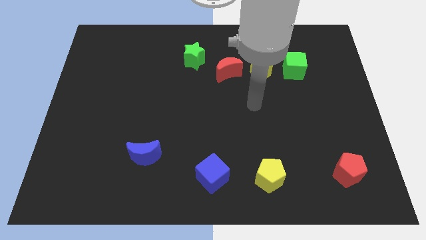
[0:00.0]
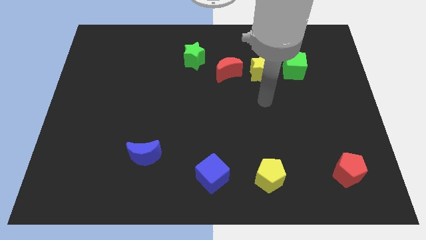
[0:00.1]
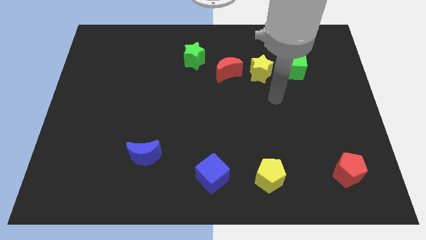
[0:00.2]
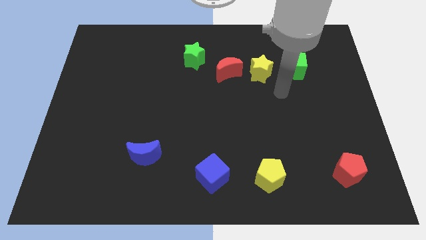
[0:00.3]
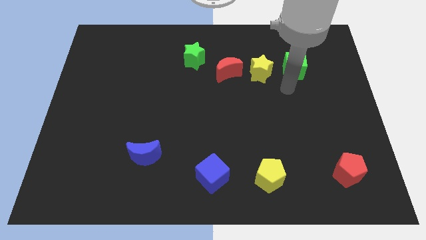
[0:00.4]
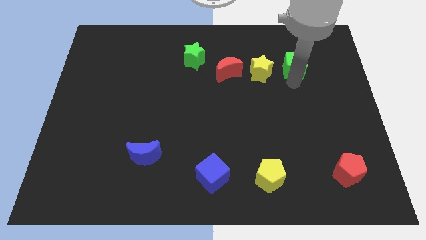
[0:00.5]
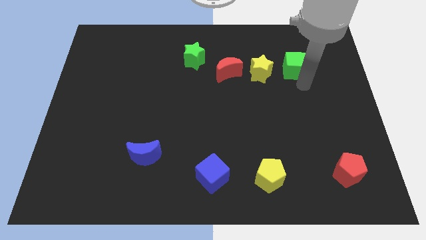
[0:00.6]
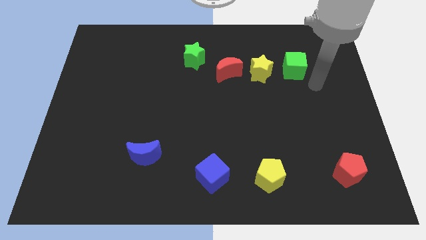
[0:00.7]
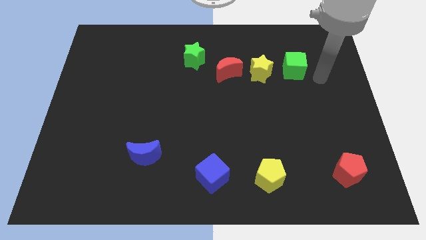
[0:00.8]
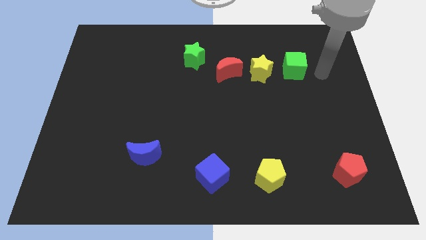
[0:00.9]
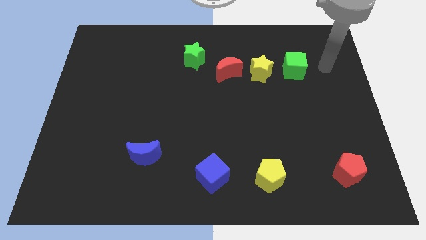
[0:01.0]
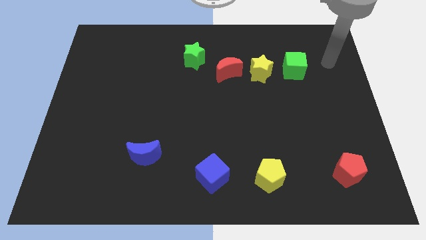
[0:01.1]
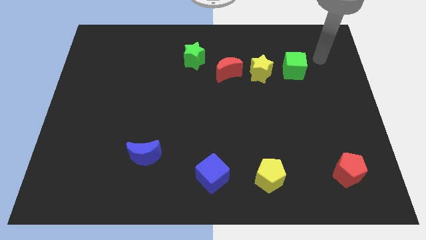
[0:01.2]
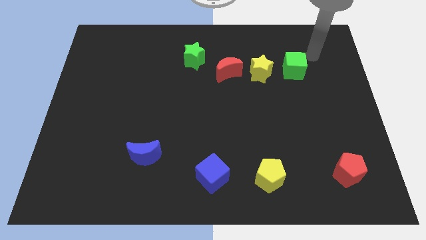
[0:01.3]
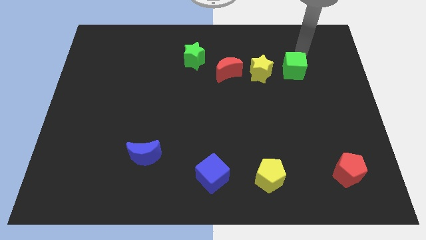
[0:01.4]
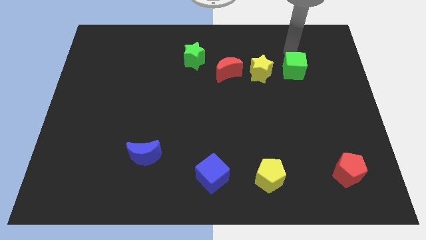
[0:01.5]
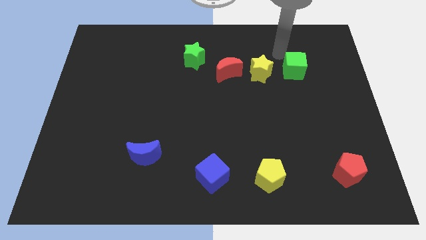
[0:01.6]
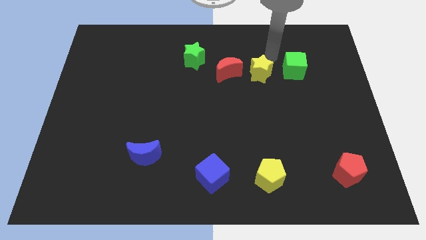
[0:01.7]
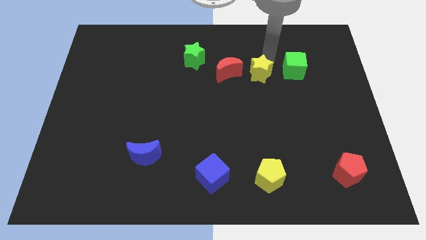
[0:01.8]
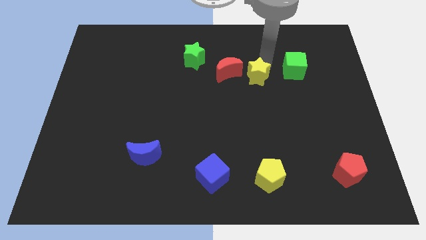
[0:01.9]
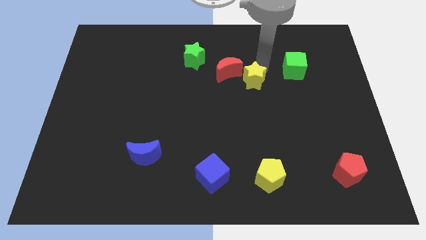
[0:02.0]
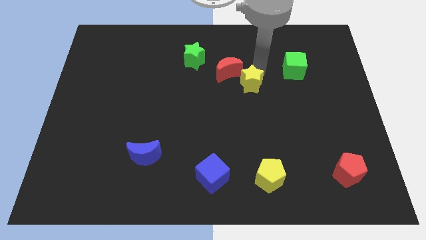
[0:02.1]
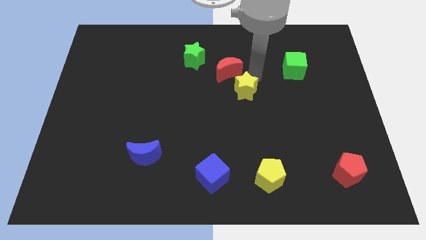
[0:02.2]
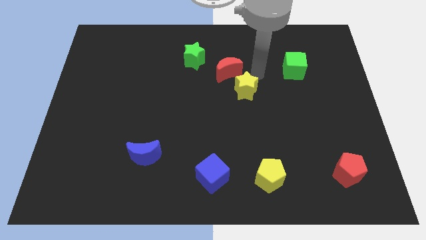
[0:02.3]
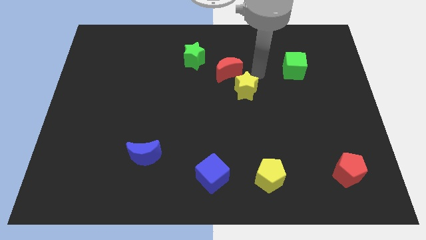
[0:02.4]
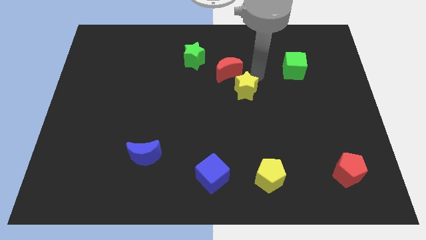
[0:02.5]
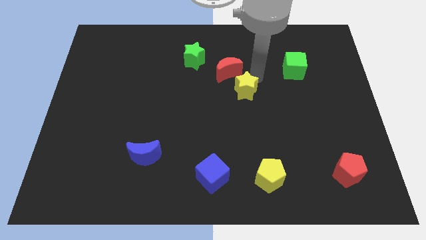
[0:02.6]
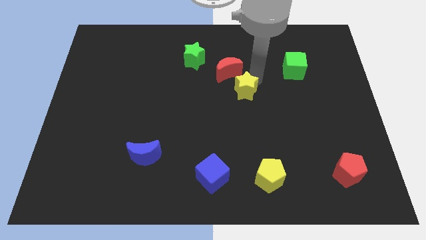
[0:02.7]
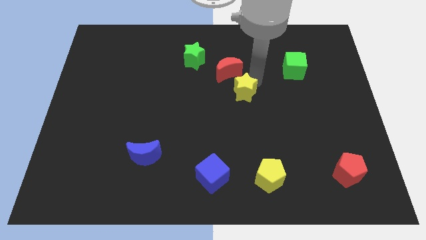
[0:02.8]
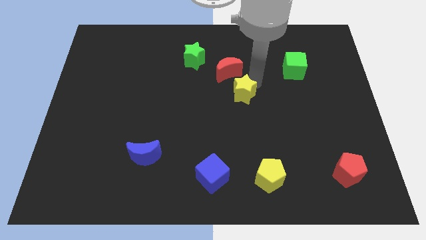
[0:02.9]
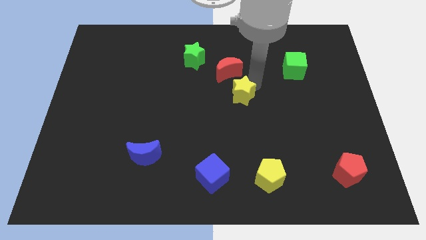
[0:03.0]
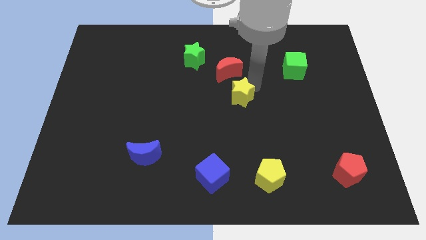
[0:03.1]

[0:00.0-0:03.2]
separate the yellow star from the red moon and green cube

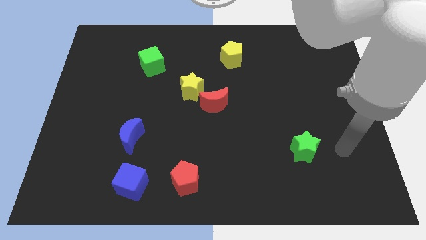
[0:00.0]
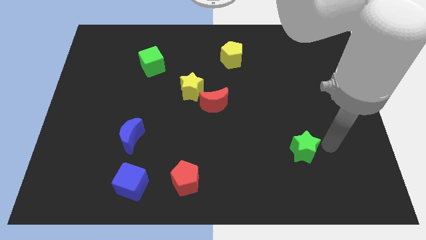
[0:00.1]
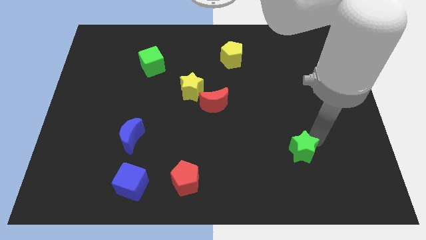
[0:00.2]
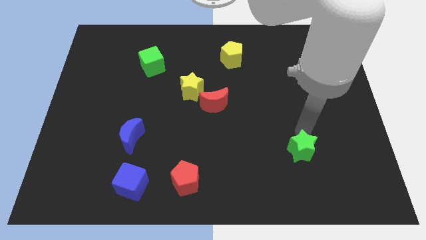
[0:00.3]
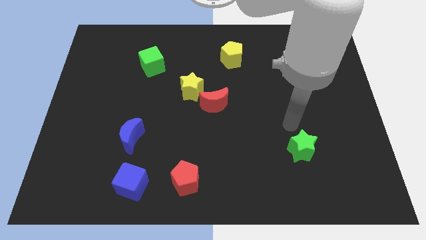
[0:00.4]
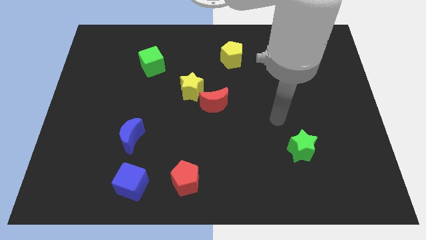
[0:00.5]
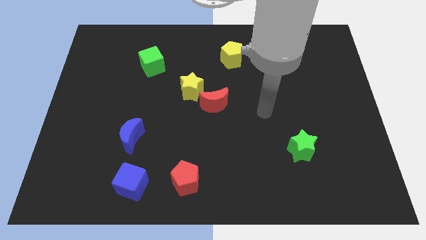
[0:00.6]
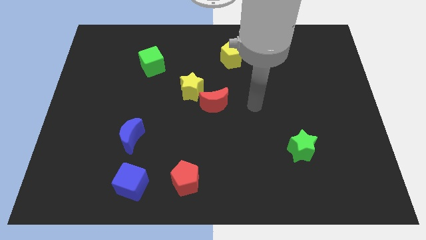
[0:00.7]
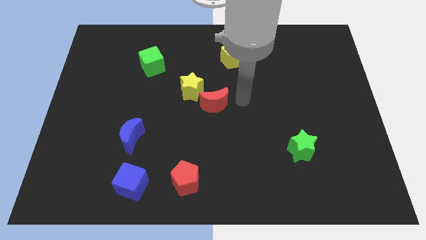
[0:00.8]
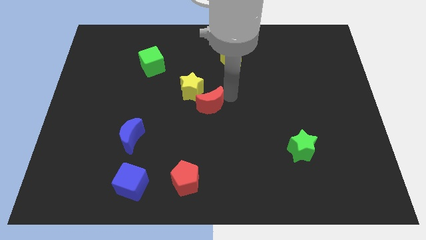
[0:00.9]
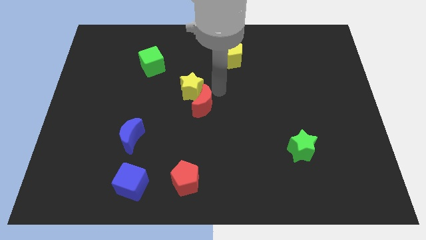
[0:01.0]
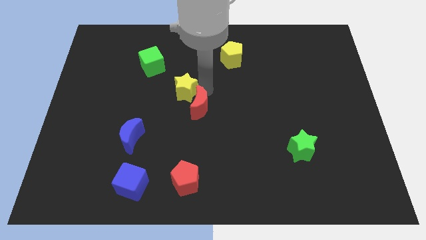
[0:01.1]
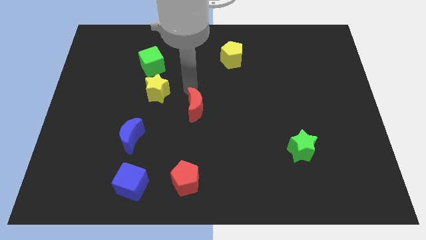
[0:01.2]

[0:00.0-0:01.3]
pull the red moon apart from the yellow star

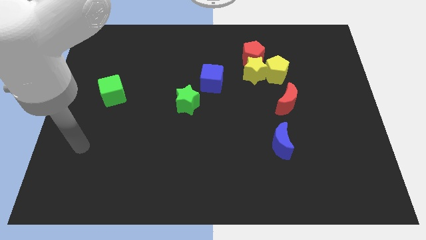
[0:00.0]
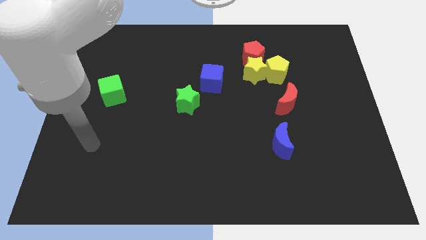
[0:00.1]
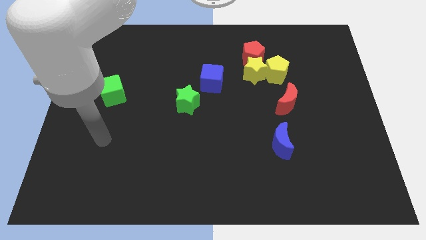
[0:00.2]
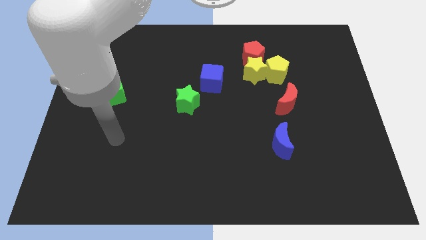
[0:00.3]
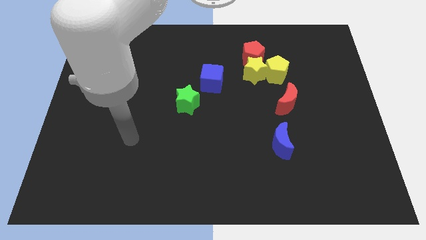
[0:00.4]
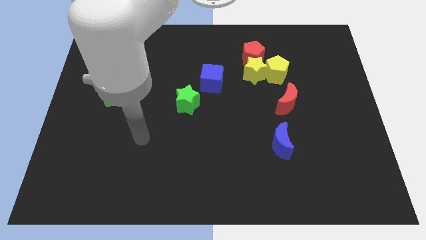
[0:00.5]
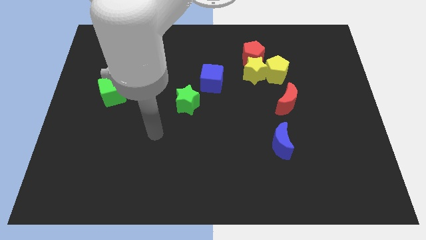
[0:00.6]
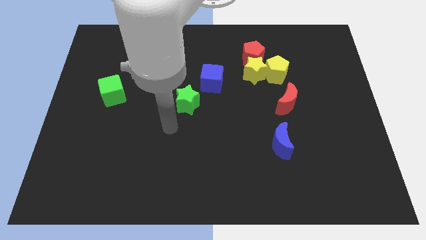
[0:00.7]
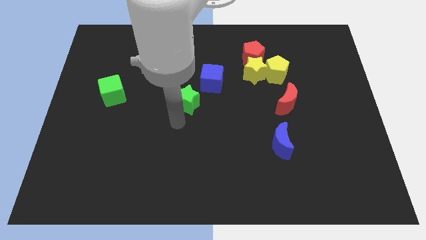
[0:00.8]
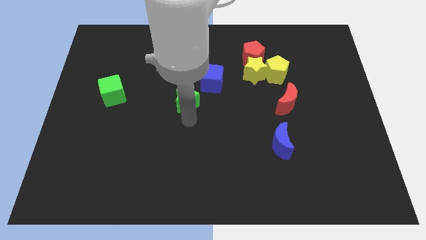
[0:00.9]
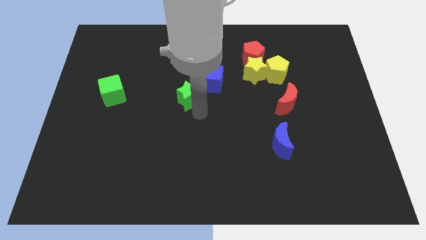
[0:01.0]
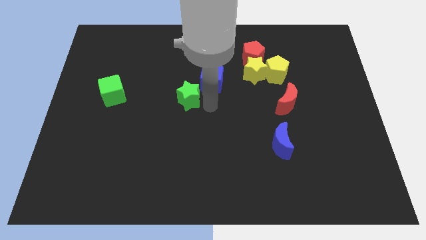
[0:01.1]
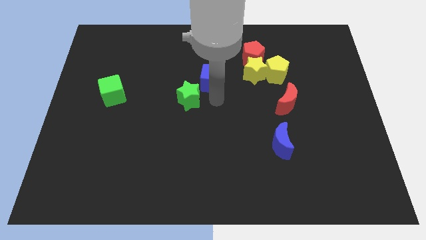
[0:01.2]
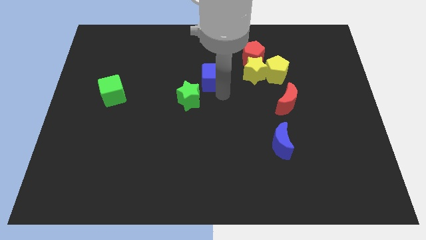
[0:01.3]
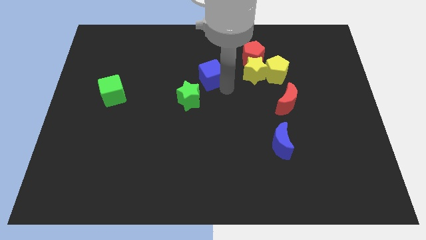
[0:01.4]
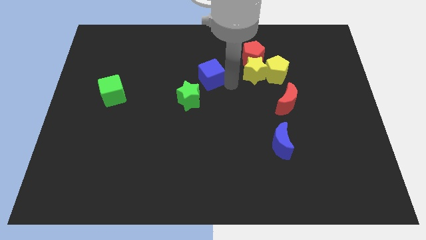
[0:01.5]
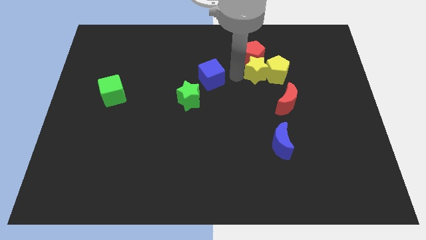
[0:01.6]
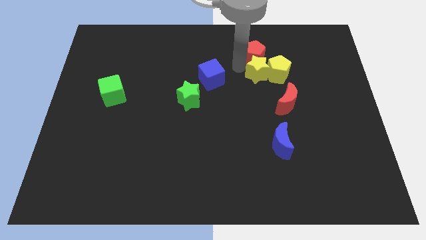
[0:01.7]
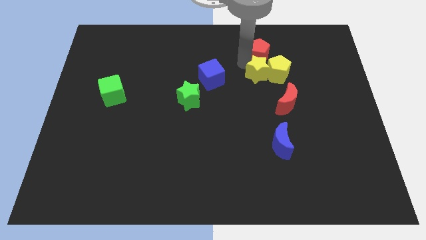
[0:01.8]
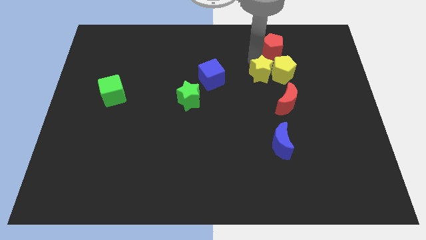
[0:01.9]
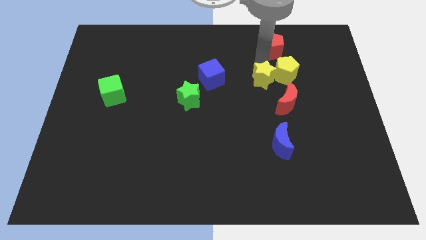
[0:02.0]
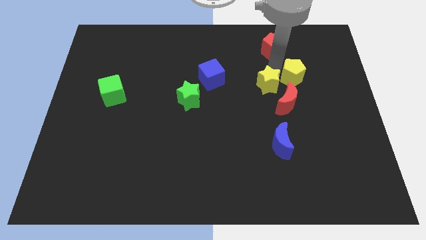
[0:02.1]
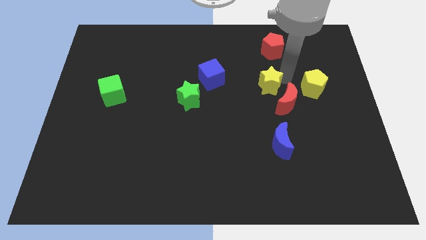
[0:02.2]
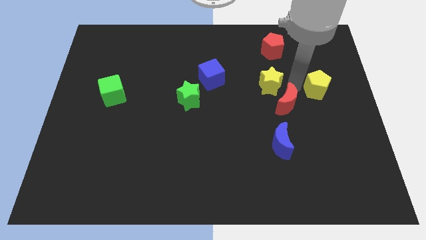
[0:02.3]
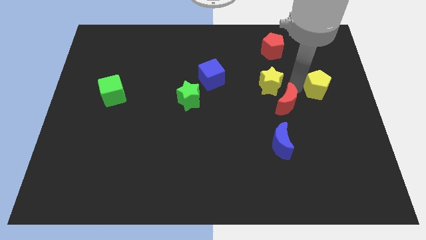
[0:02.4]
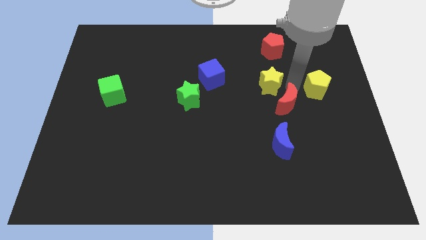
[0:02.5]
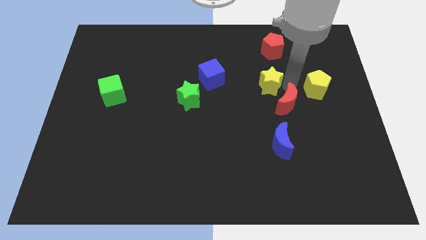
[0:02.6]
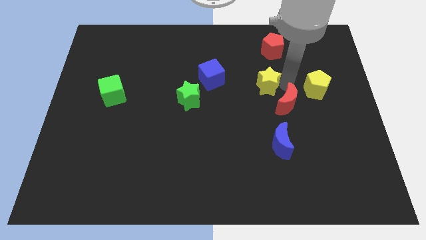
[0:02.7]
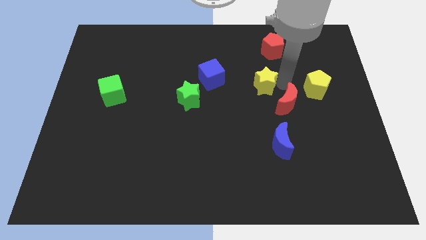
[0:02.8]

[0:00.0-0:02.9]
pull the yellow star apart from the yellow pentagon and red pentagon

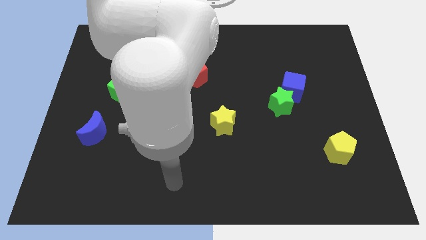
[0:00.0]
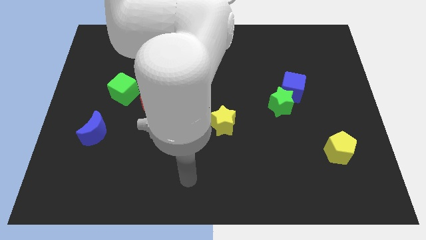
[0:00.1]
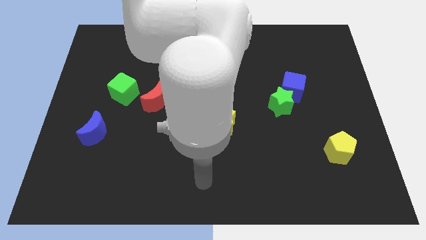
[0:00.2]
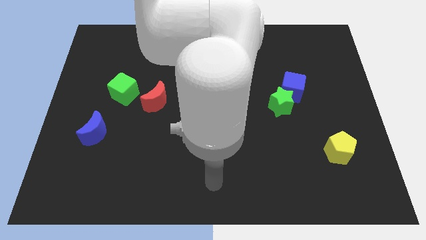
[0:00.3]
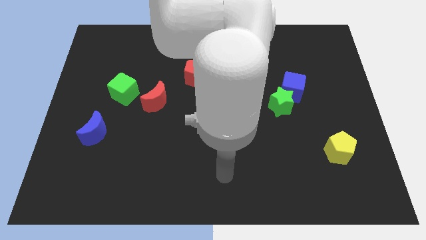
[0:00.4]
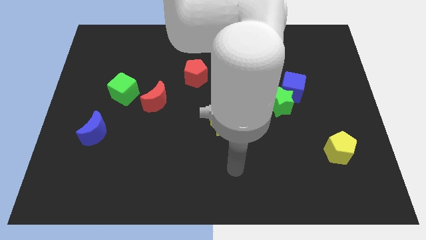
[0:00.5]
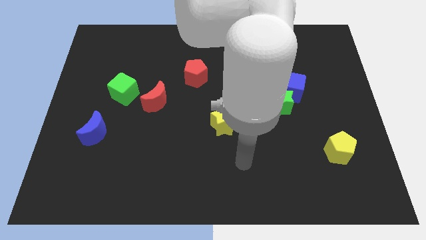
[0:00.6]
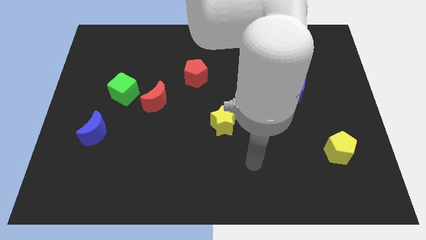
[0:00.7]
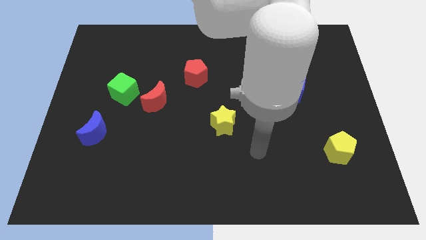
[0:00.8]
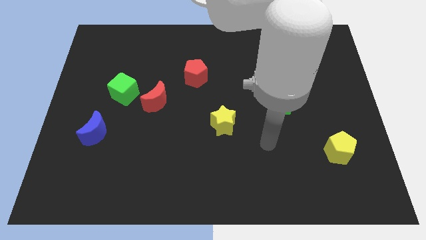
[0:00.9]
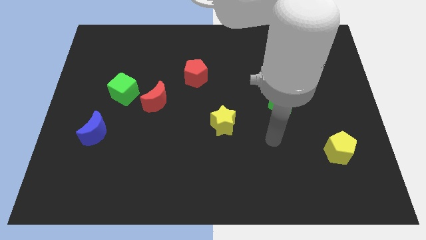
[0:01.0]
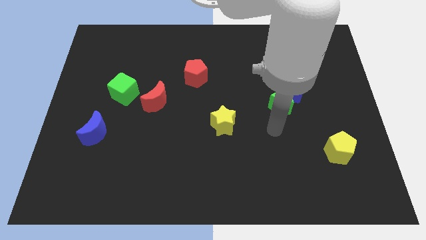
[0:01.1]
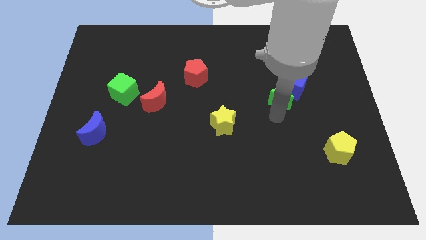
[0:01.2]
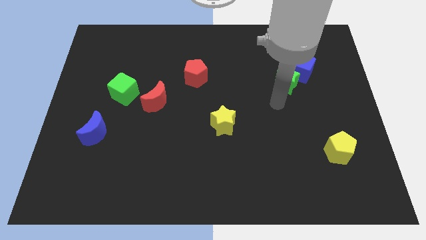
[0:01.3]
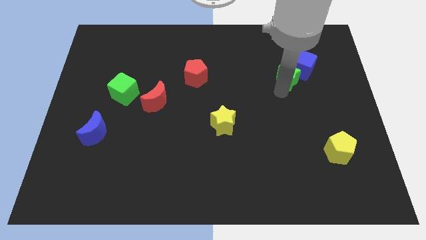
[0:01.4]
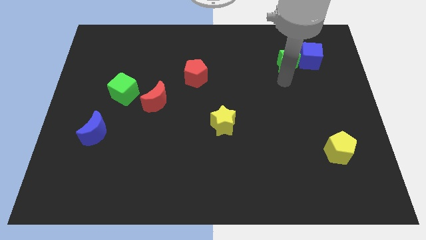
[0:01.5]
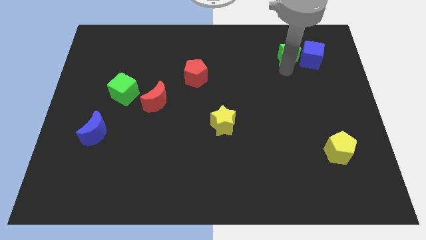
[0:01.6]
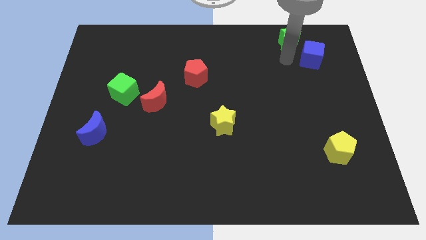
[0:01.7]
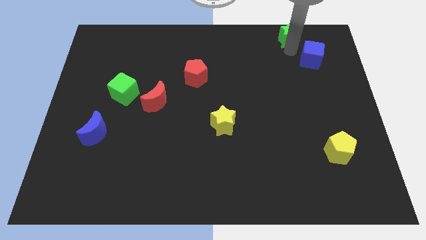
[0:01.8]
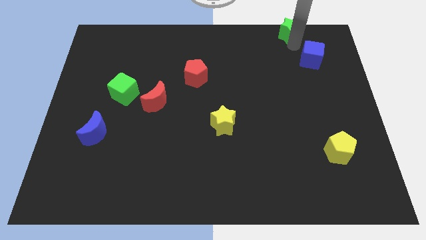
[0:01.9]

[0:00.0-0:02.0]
separate the blue cube from the green star
